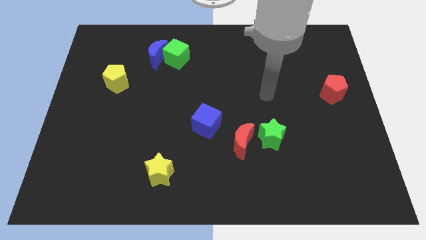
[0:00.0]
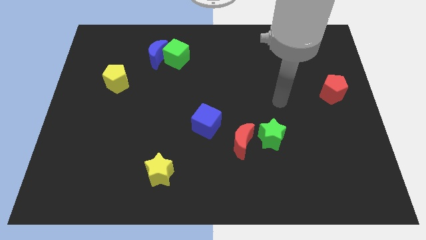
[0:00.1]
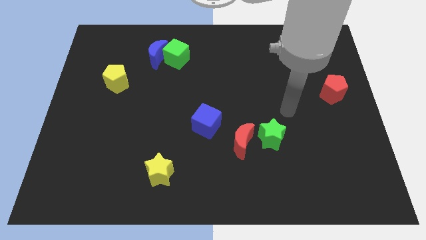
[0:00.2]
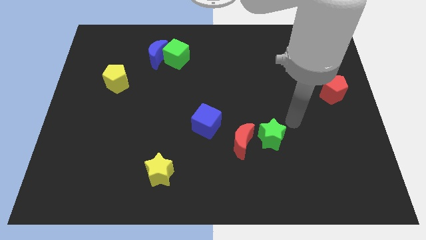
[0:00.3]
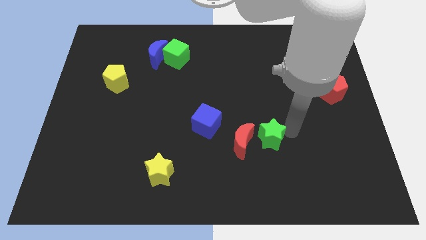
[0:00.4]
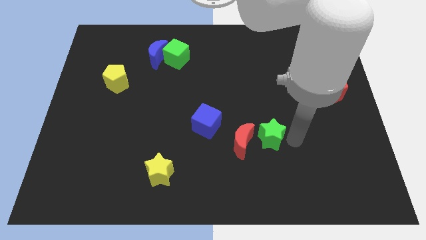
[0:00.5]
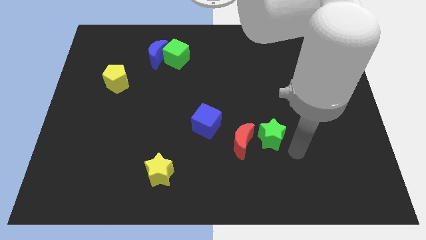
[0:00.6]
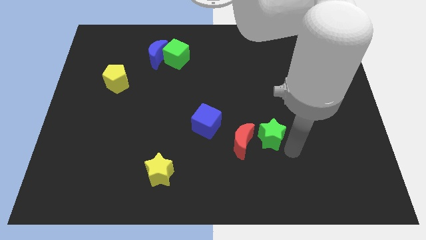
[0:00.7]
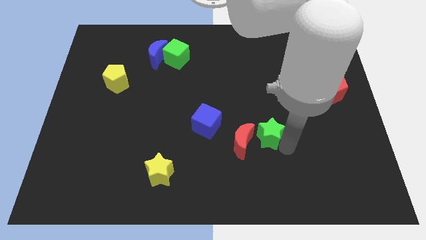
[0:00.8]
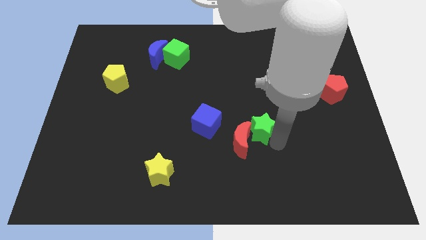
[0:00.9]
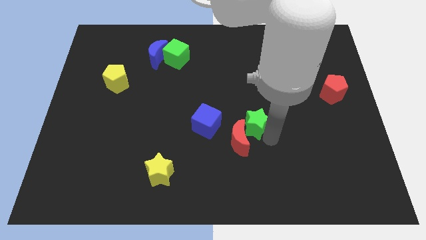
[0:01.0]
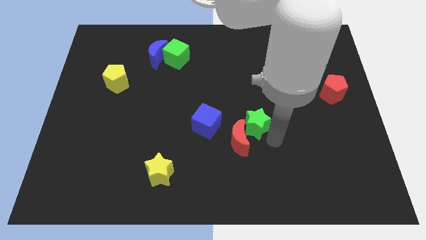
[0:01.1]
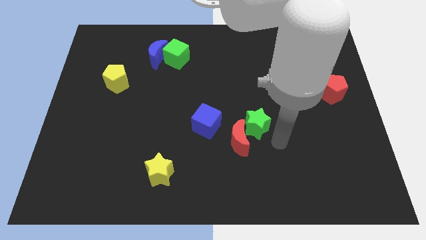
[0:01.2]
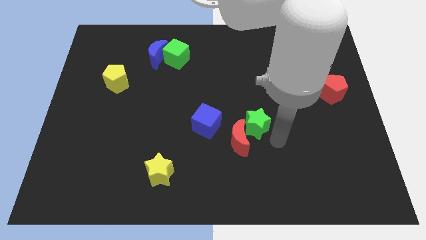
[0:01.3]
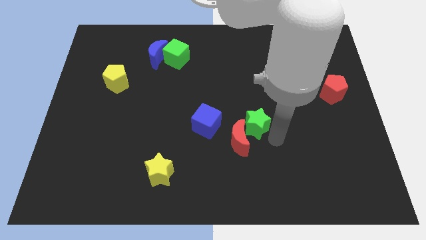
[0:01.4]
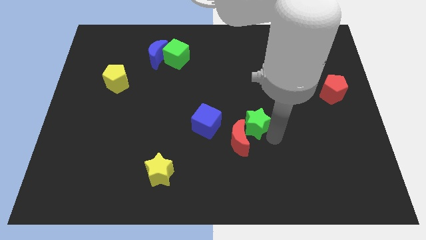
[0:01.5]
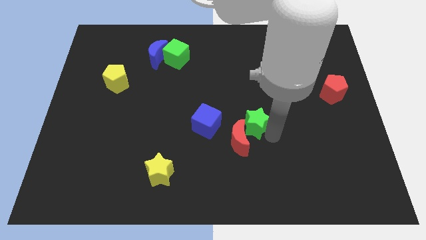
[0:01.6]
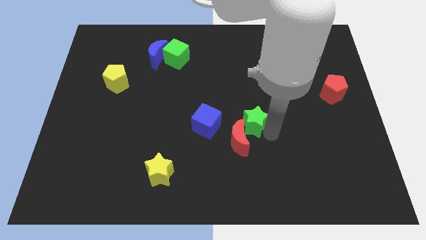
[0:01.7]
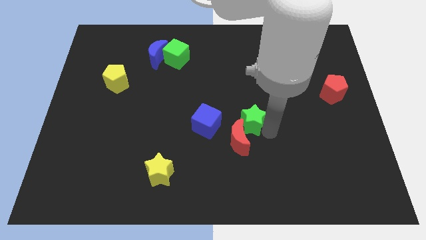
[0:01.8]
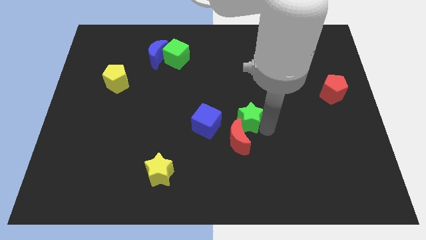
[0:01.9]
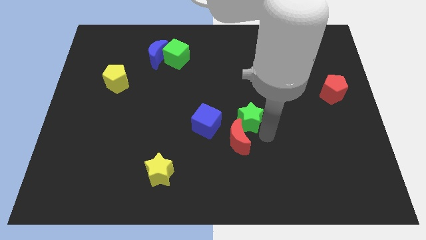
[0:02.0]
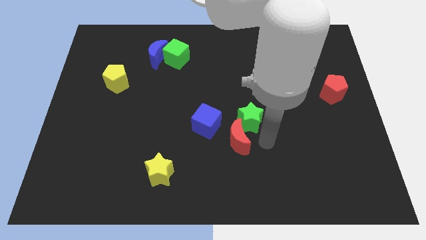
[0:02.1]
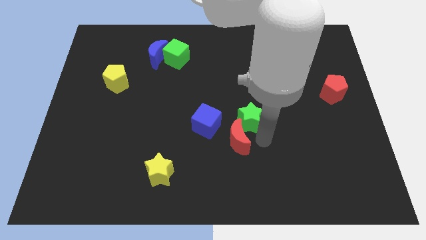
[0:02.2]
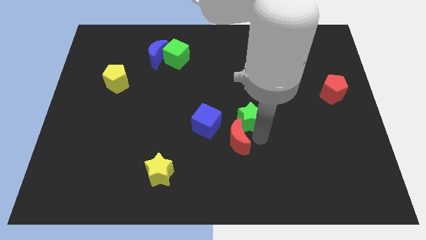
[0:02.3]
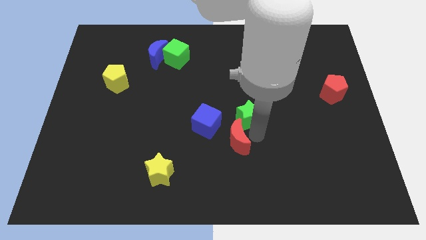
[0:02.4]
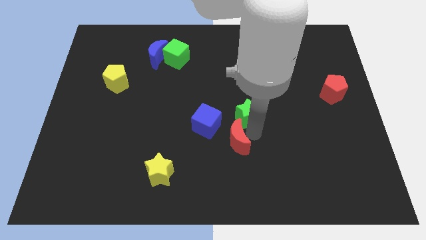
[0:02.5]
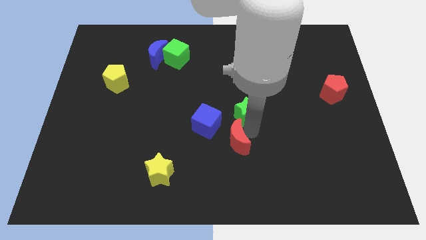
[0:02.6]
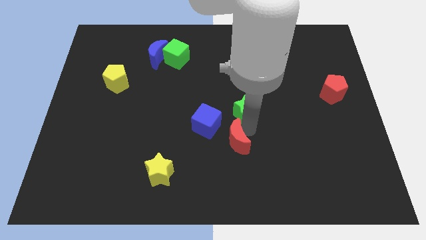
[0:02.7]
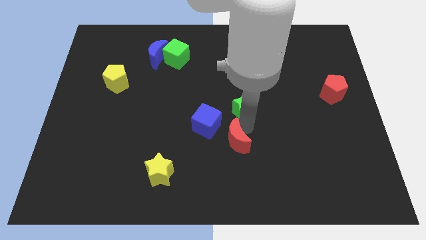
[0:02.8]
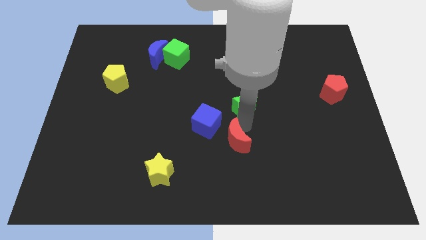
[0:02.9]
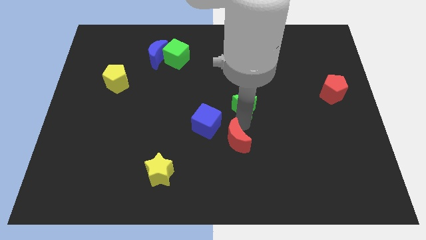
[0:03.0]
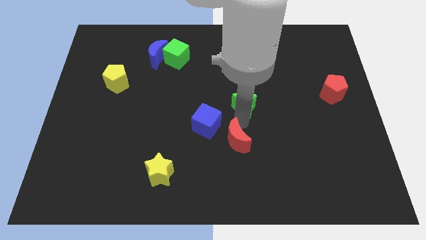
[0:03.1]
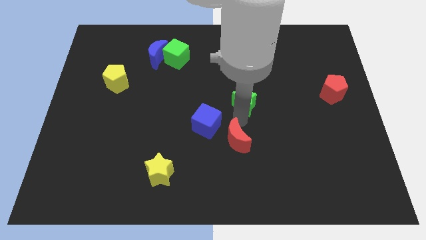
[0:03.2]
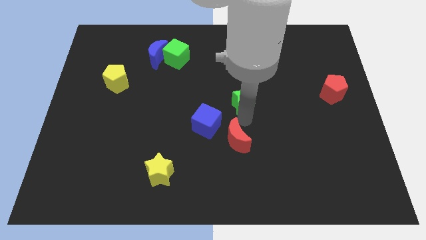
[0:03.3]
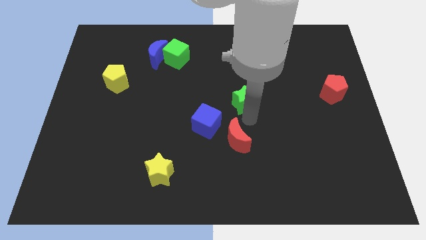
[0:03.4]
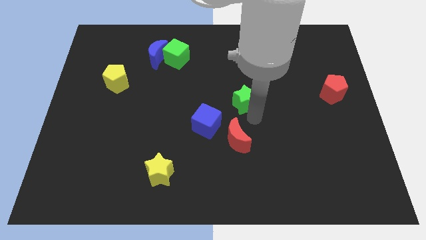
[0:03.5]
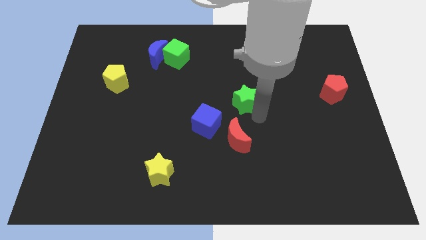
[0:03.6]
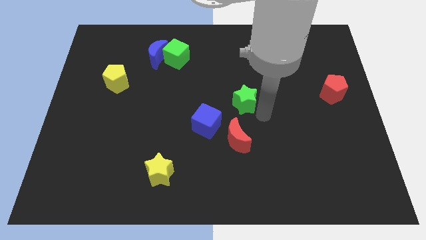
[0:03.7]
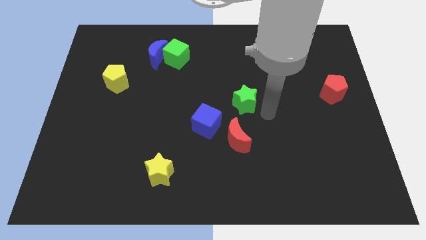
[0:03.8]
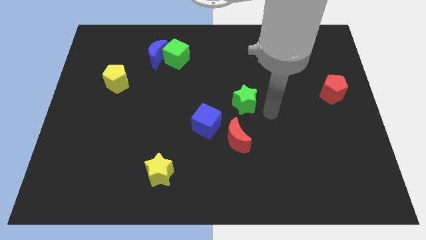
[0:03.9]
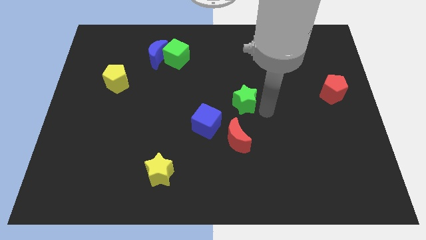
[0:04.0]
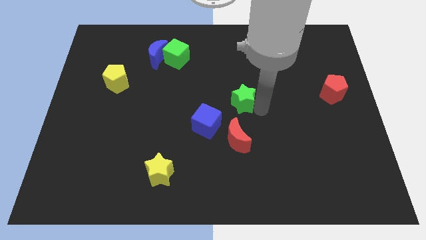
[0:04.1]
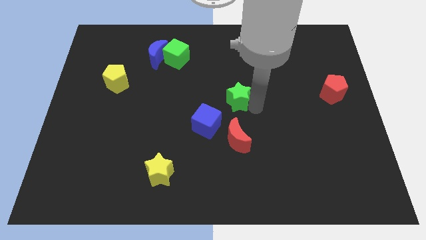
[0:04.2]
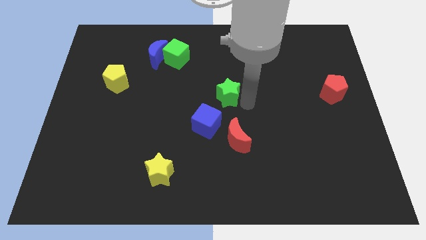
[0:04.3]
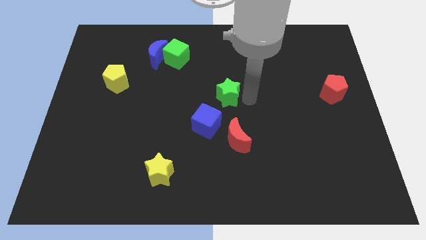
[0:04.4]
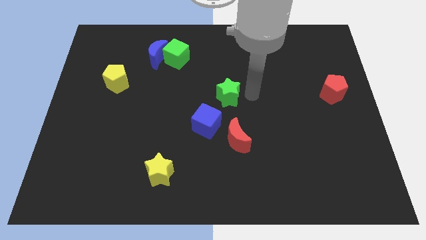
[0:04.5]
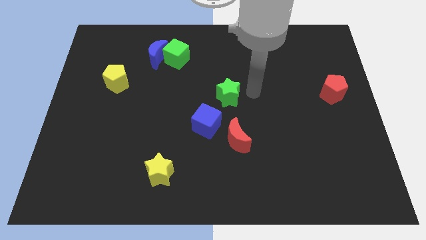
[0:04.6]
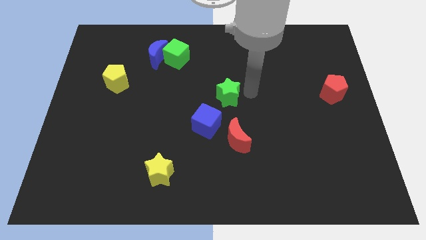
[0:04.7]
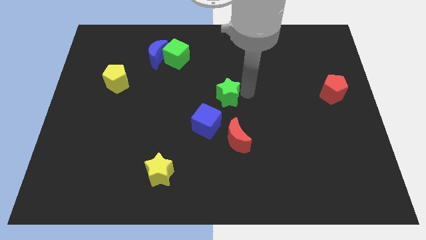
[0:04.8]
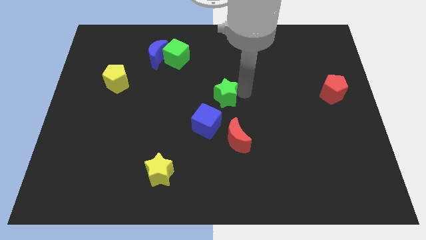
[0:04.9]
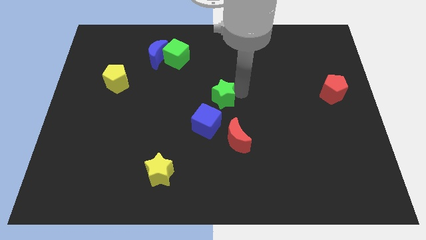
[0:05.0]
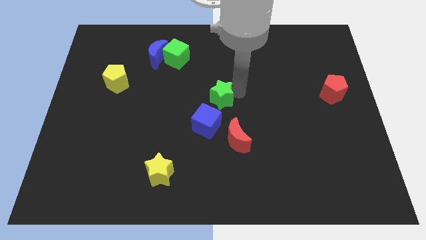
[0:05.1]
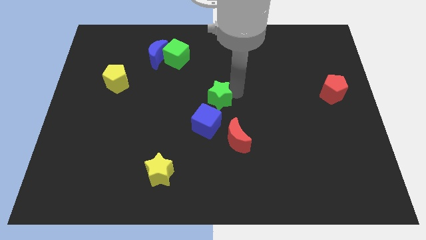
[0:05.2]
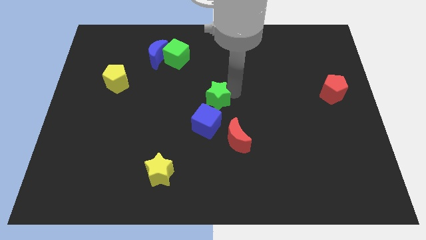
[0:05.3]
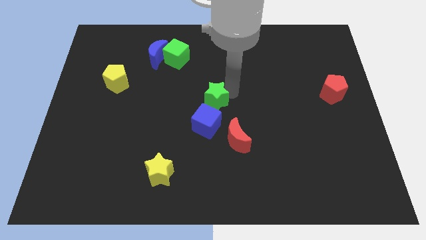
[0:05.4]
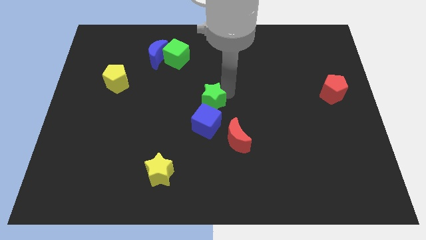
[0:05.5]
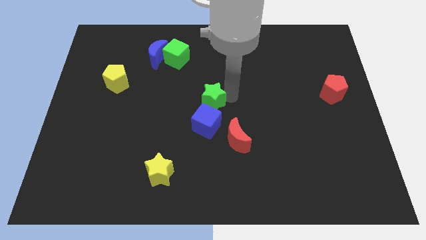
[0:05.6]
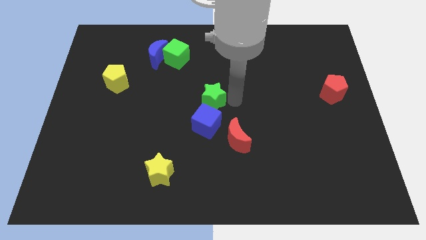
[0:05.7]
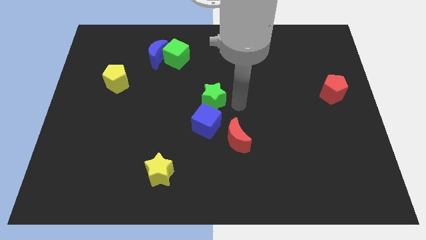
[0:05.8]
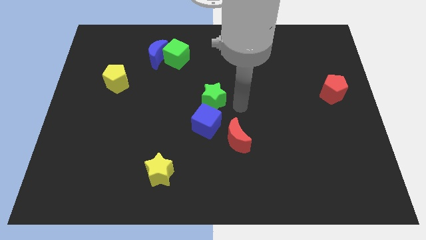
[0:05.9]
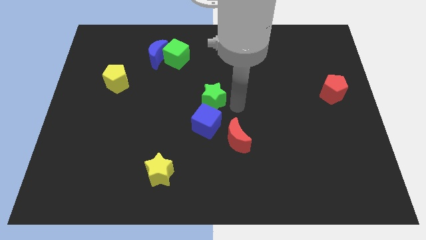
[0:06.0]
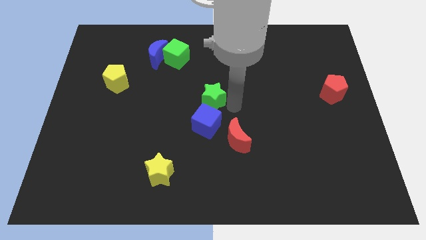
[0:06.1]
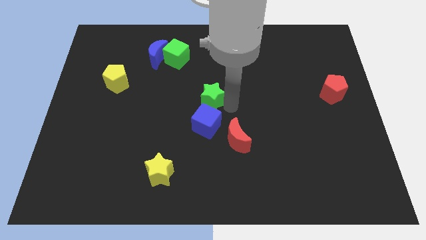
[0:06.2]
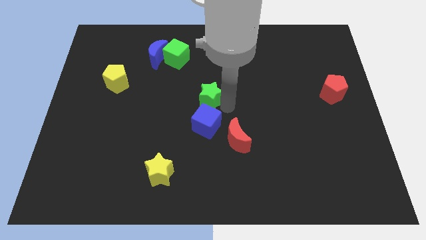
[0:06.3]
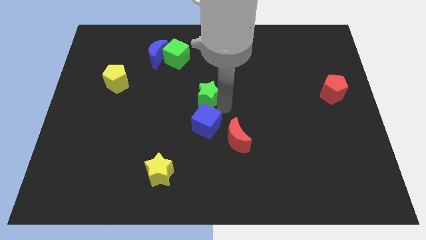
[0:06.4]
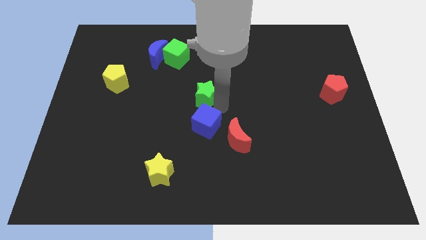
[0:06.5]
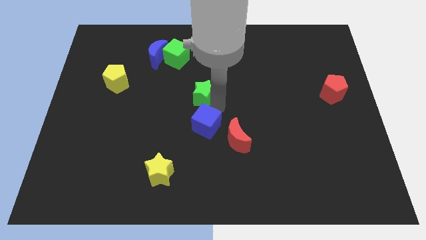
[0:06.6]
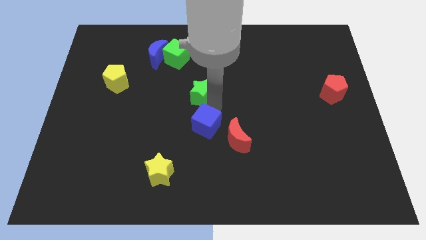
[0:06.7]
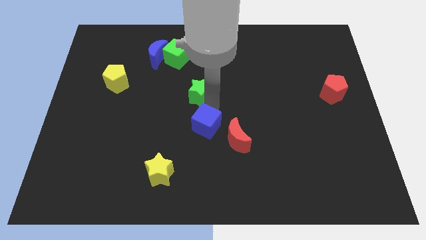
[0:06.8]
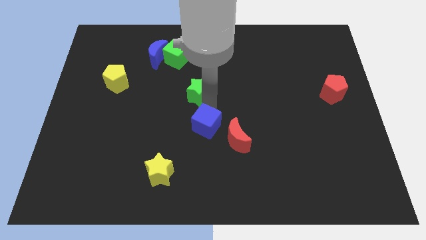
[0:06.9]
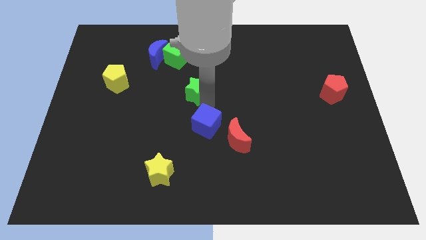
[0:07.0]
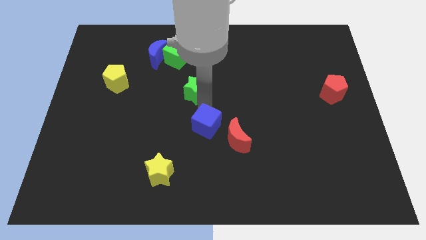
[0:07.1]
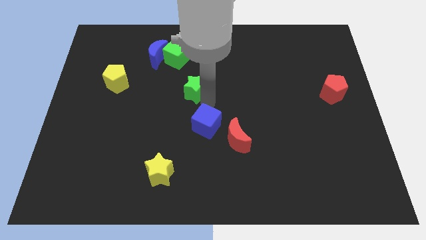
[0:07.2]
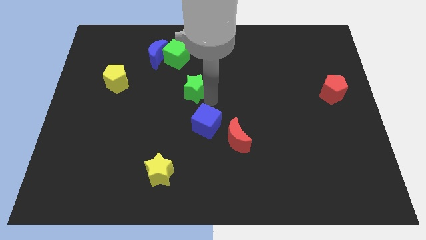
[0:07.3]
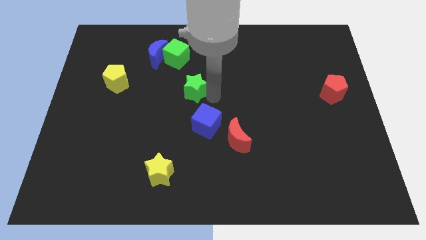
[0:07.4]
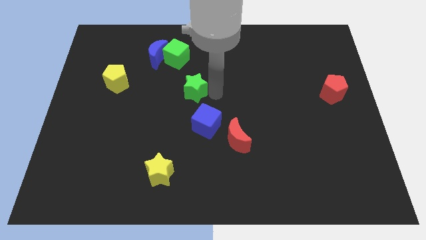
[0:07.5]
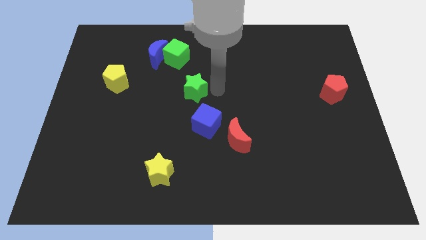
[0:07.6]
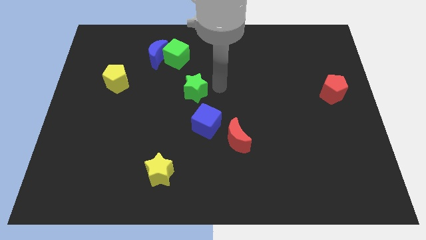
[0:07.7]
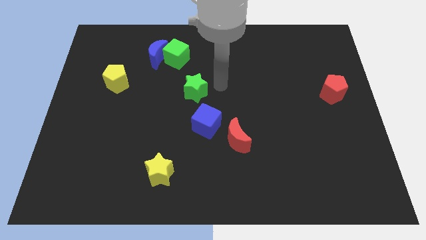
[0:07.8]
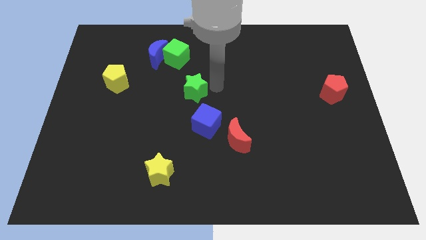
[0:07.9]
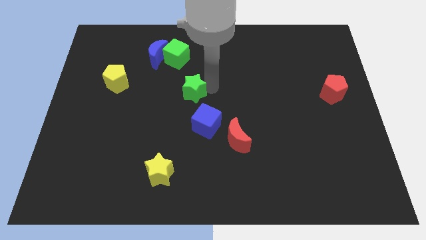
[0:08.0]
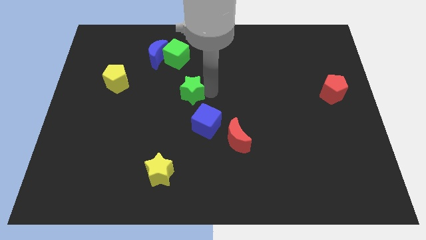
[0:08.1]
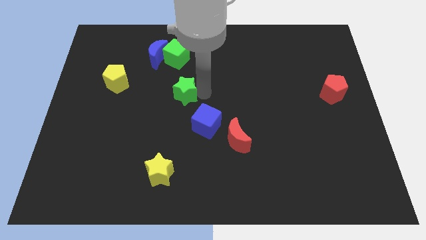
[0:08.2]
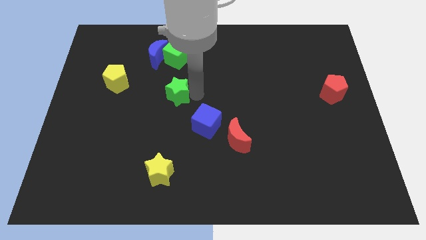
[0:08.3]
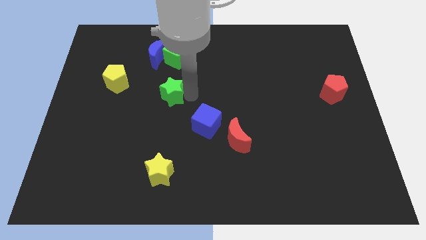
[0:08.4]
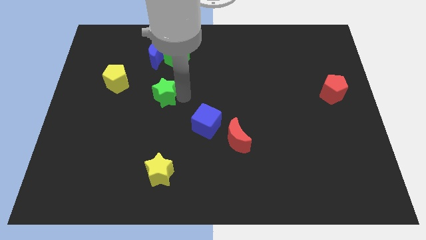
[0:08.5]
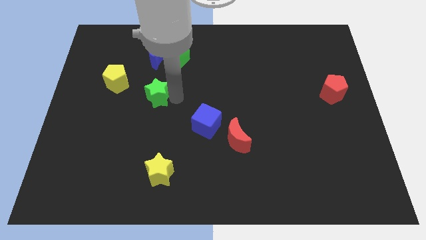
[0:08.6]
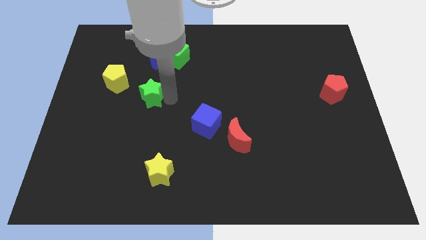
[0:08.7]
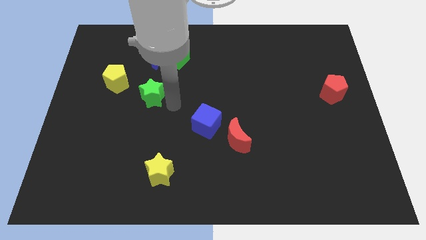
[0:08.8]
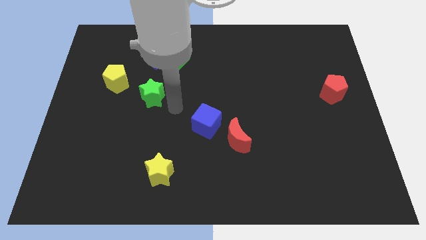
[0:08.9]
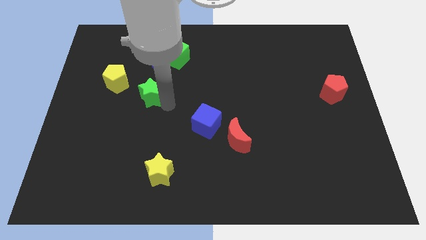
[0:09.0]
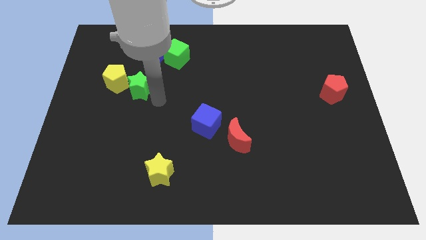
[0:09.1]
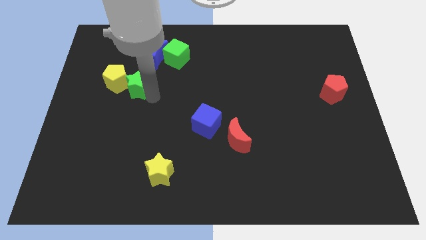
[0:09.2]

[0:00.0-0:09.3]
put the green star towards the yellow pentagon
